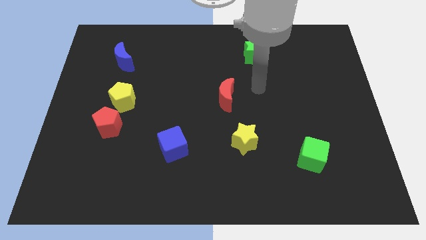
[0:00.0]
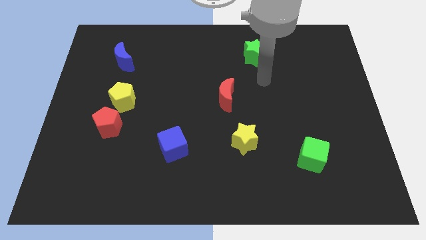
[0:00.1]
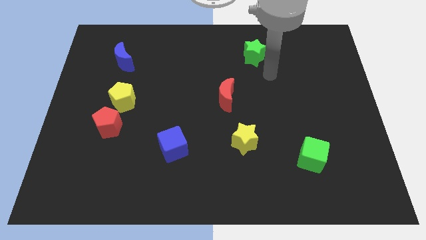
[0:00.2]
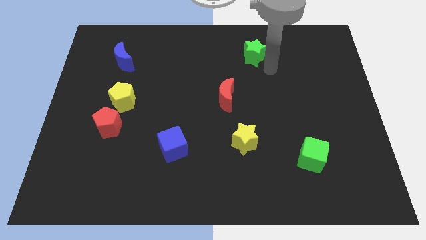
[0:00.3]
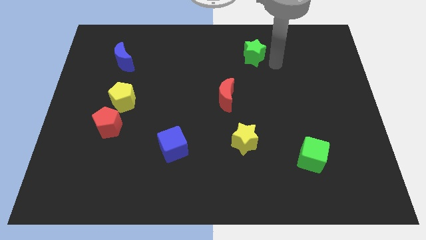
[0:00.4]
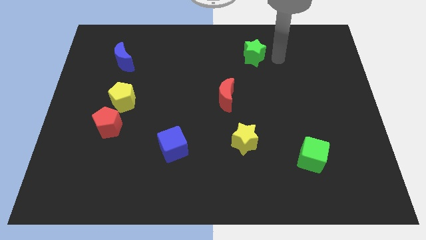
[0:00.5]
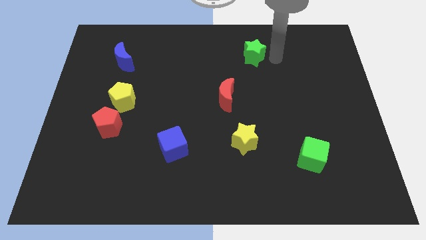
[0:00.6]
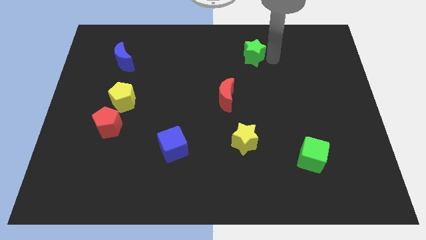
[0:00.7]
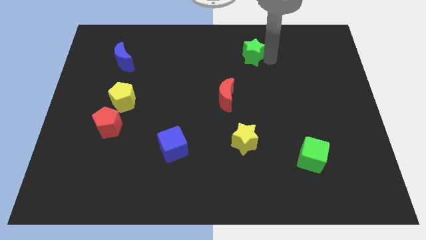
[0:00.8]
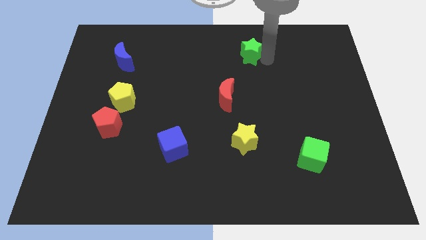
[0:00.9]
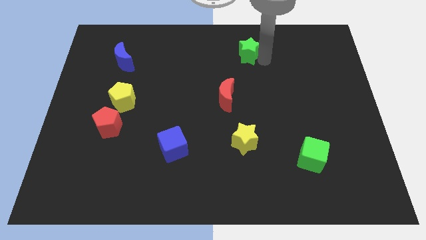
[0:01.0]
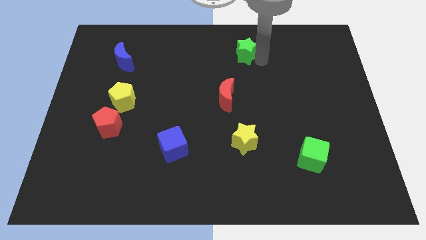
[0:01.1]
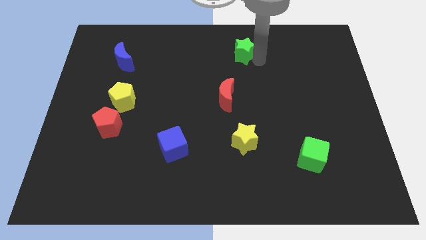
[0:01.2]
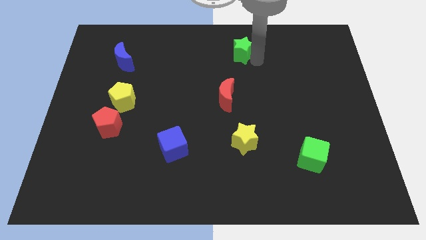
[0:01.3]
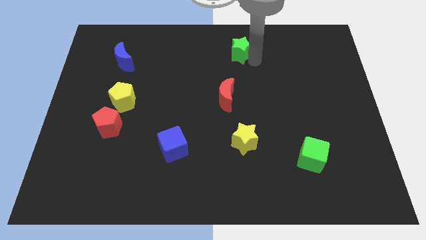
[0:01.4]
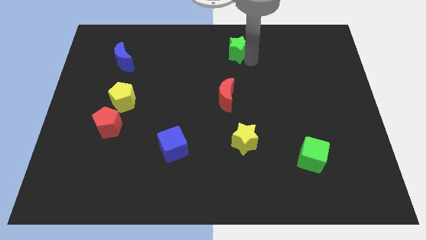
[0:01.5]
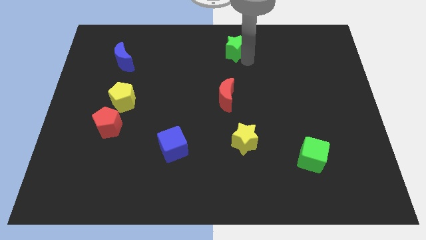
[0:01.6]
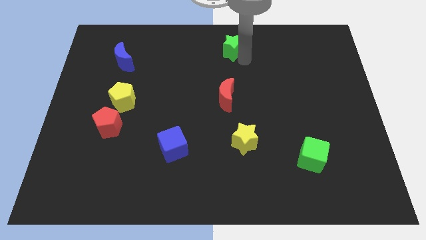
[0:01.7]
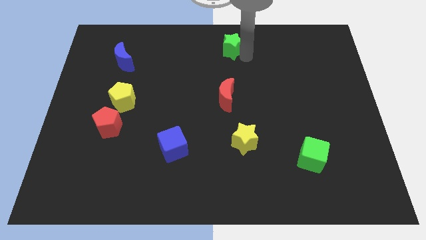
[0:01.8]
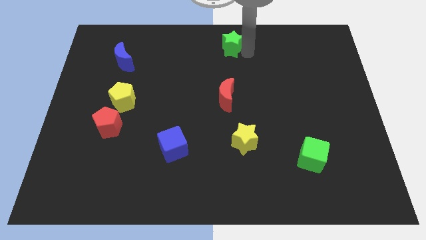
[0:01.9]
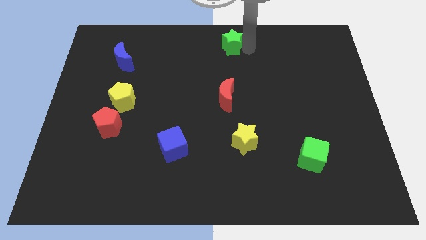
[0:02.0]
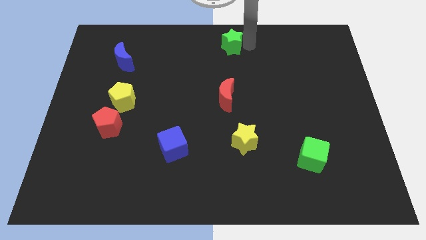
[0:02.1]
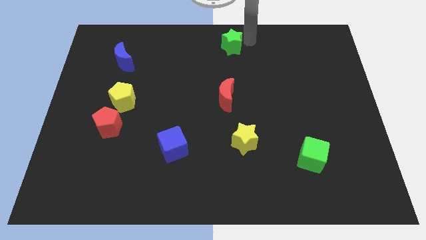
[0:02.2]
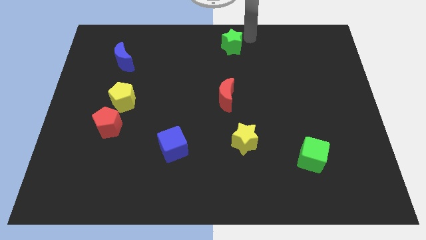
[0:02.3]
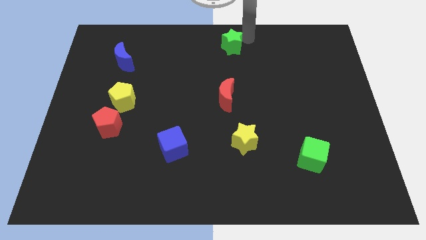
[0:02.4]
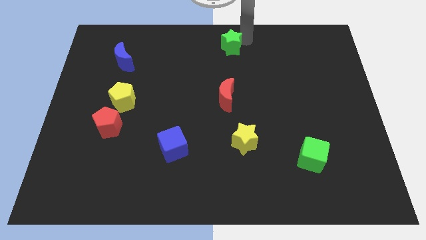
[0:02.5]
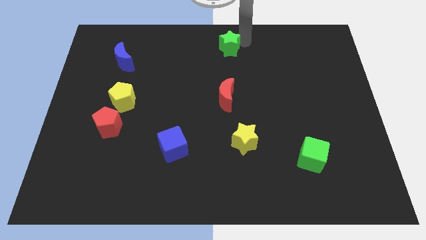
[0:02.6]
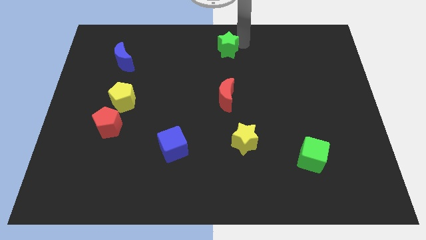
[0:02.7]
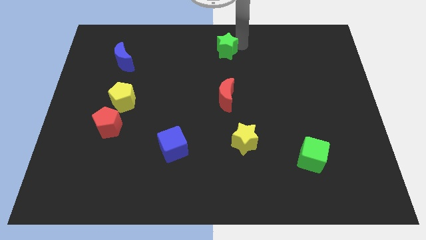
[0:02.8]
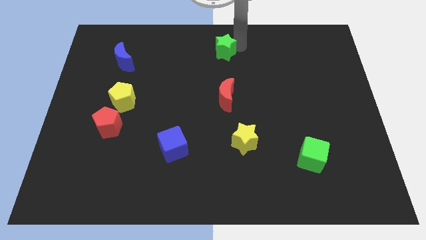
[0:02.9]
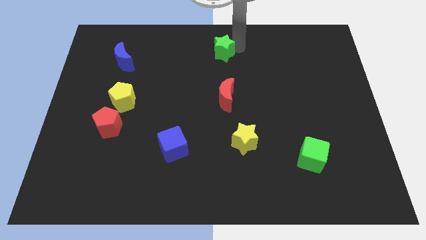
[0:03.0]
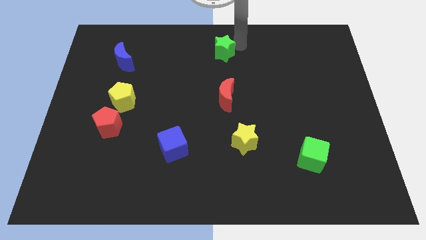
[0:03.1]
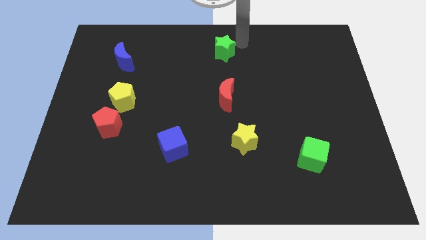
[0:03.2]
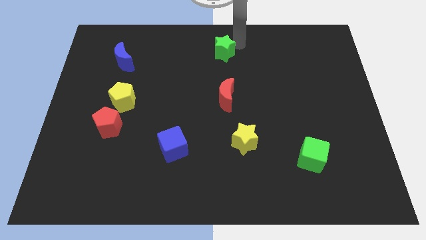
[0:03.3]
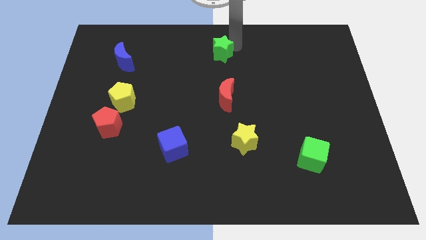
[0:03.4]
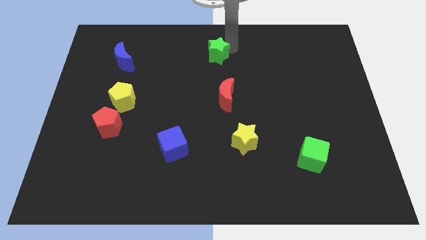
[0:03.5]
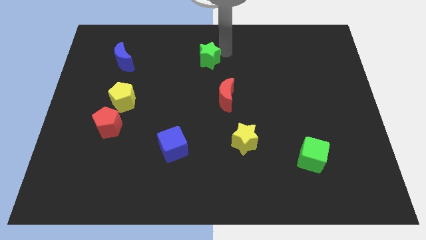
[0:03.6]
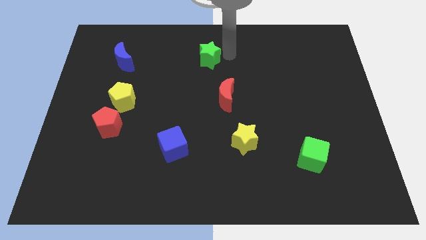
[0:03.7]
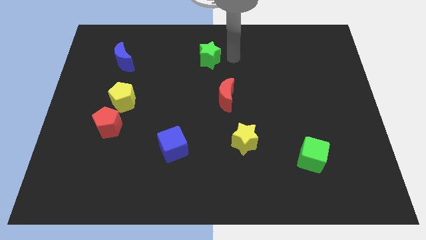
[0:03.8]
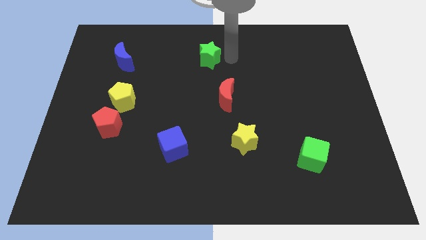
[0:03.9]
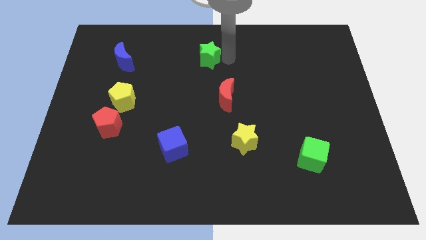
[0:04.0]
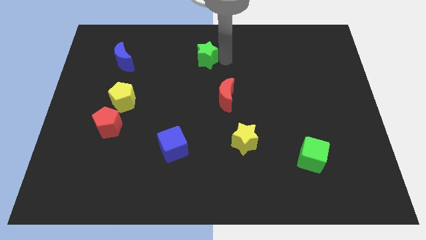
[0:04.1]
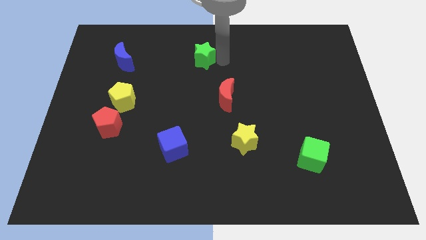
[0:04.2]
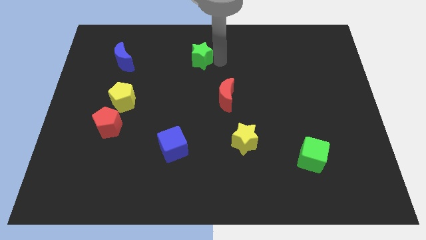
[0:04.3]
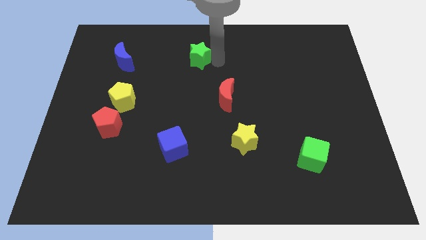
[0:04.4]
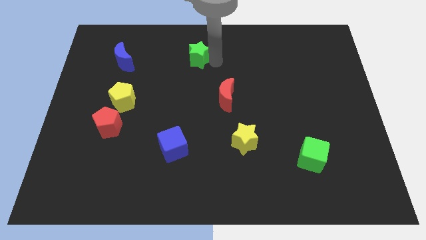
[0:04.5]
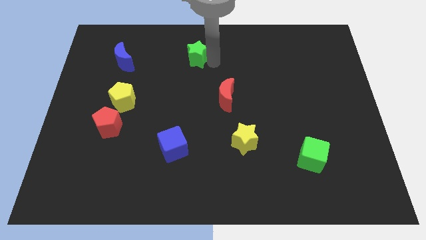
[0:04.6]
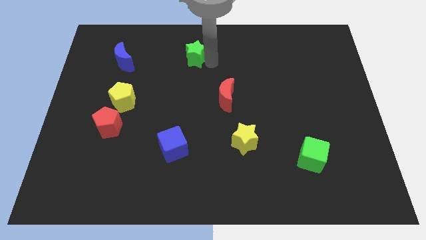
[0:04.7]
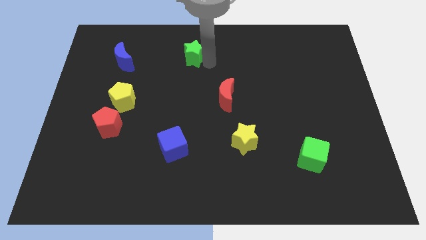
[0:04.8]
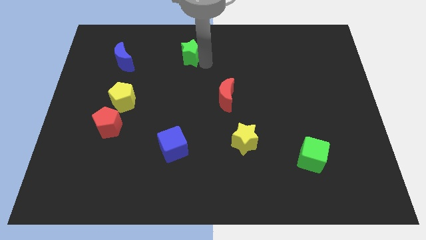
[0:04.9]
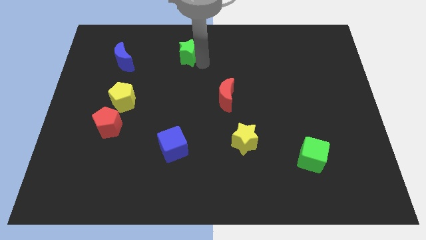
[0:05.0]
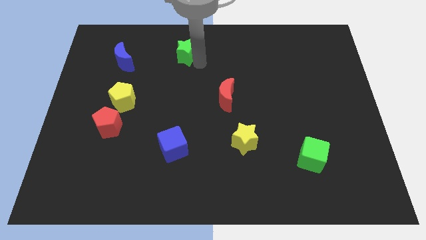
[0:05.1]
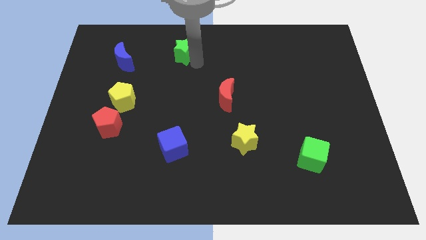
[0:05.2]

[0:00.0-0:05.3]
push the green star to the right side of the blue moon

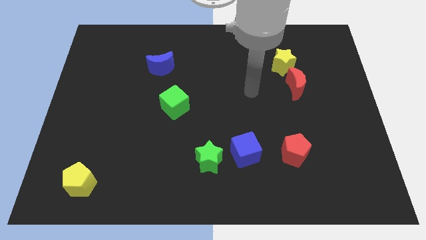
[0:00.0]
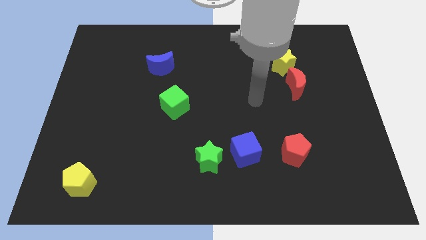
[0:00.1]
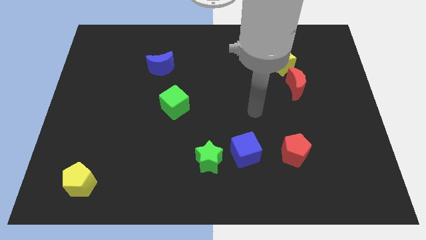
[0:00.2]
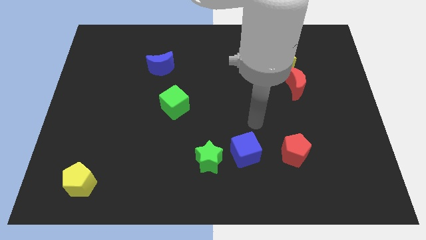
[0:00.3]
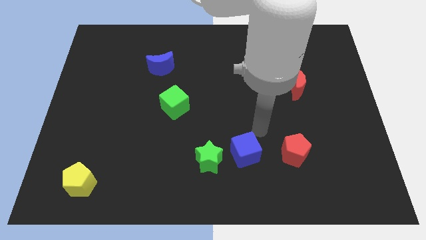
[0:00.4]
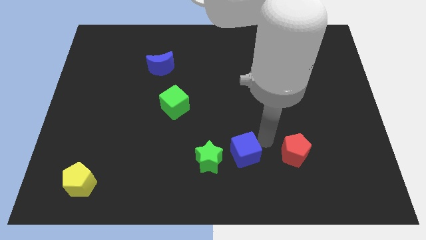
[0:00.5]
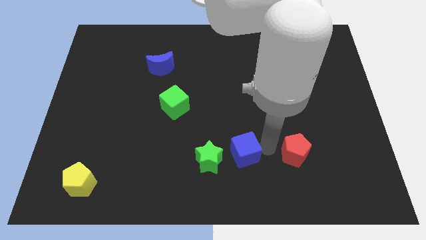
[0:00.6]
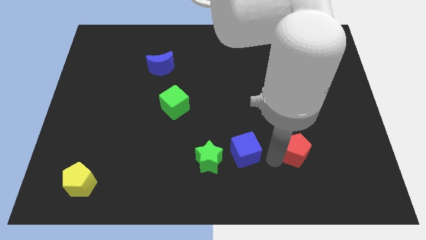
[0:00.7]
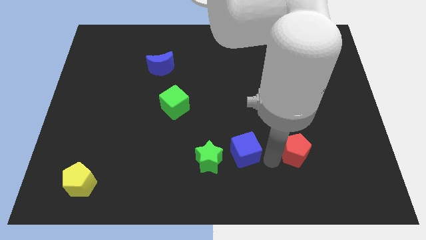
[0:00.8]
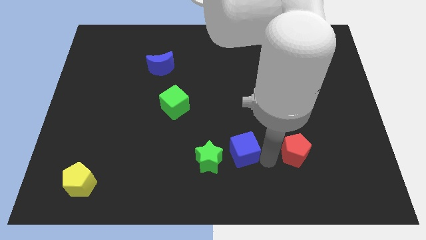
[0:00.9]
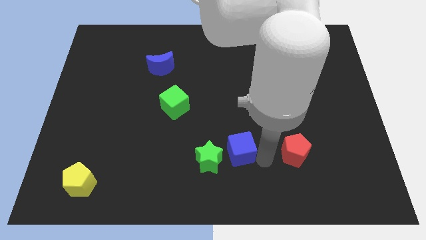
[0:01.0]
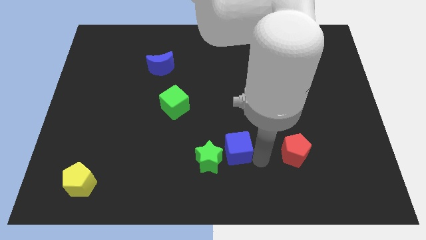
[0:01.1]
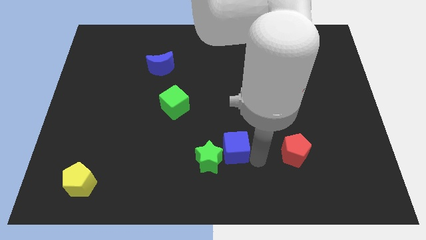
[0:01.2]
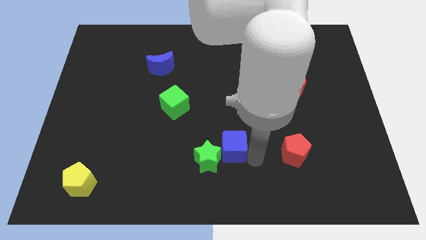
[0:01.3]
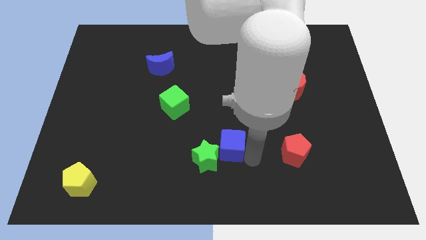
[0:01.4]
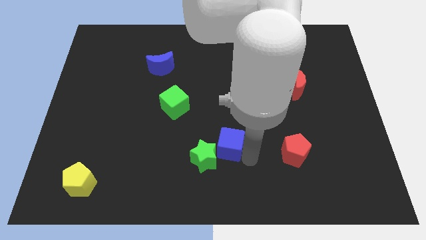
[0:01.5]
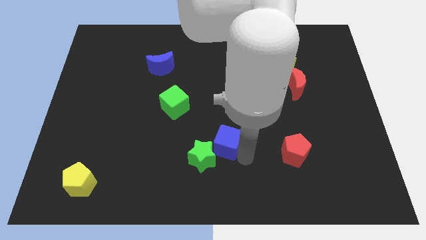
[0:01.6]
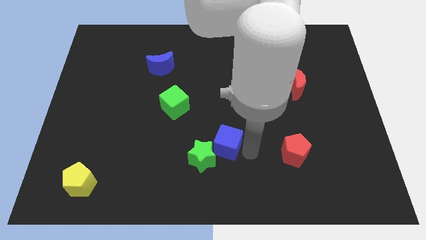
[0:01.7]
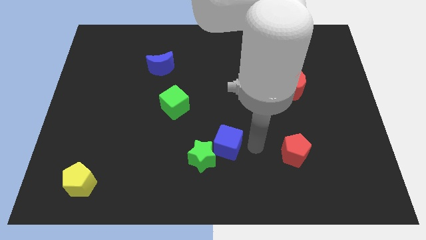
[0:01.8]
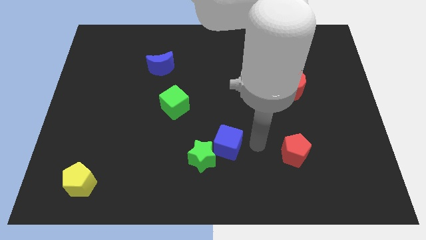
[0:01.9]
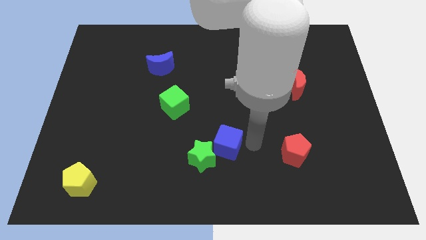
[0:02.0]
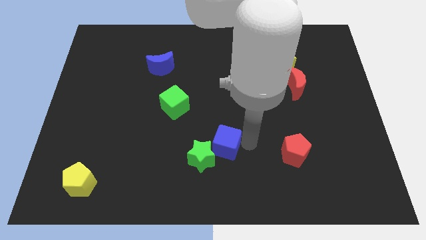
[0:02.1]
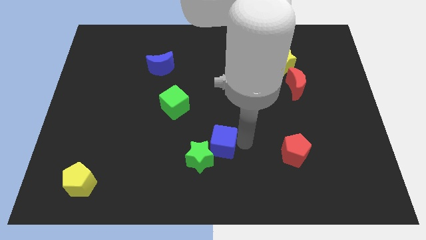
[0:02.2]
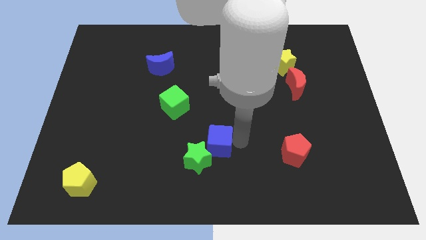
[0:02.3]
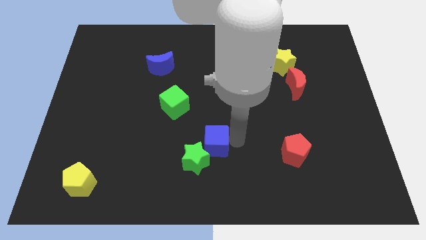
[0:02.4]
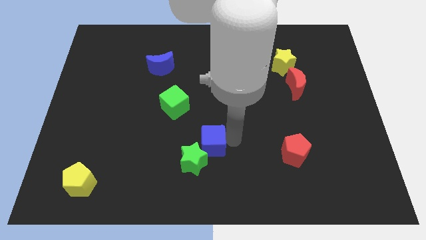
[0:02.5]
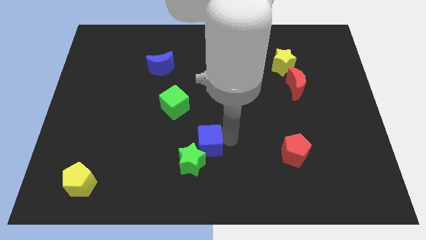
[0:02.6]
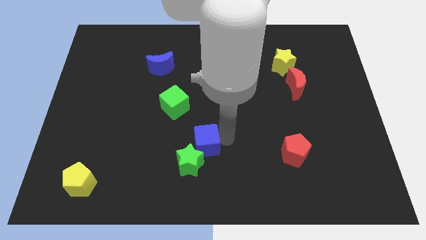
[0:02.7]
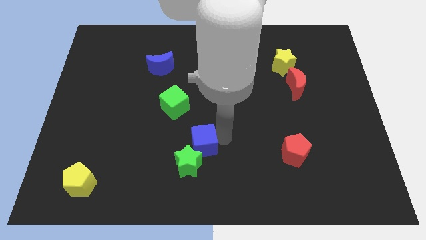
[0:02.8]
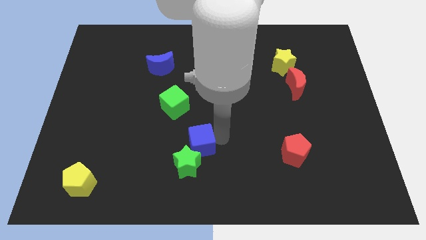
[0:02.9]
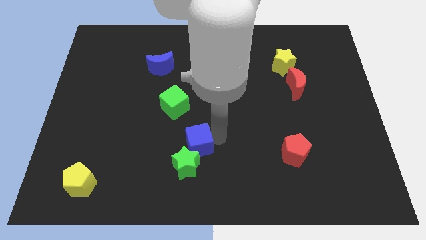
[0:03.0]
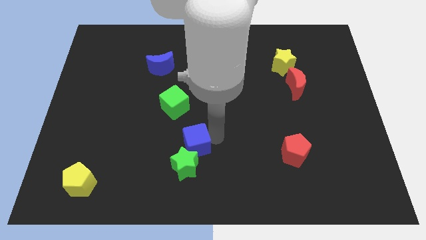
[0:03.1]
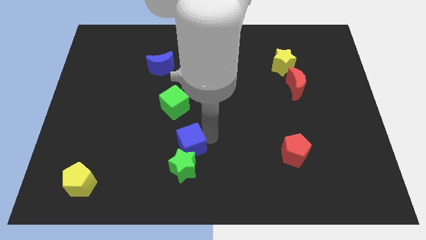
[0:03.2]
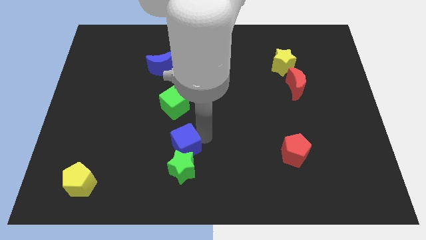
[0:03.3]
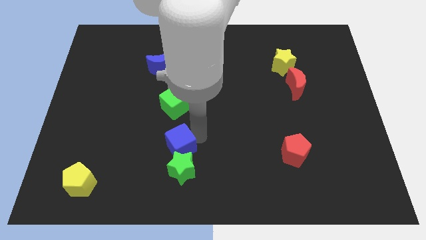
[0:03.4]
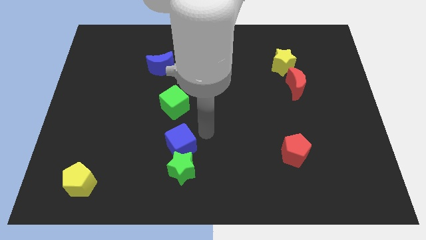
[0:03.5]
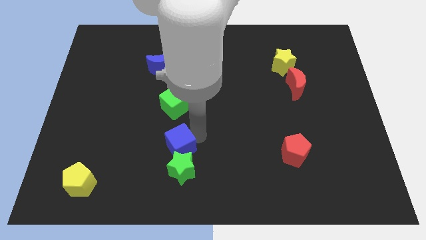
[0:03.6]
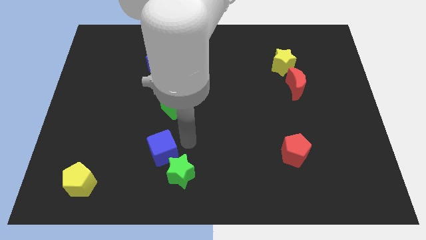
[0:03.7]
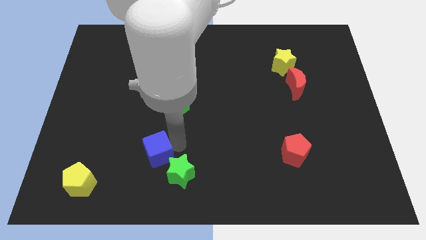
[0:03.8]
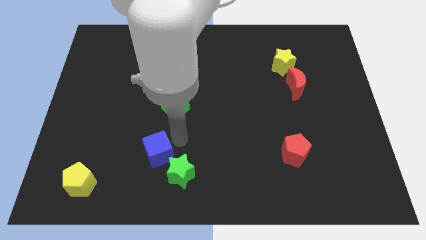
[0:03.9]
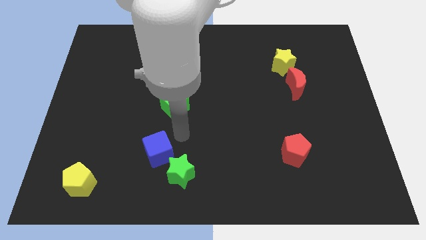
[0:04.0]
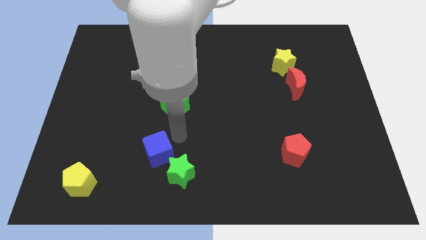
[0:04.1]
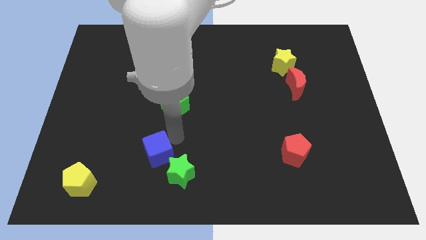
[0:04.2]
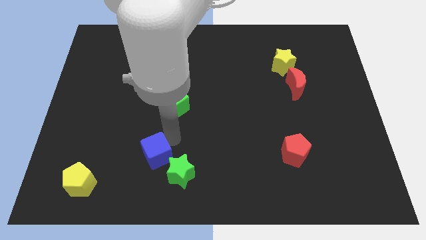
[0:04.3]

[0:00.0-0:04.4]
push the blue cube to the left side of the green star
